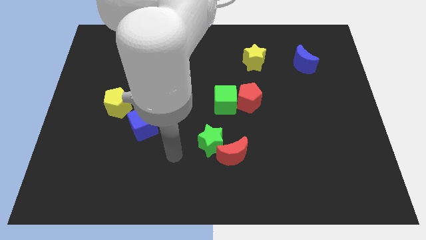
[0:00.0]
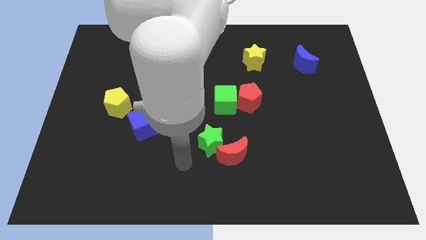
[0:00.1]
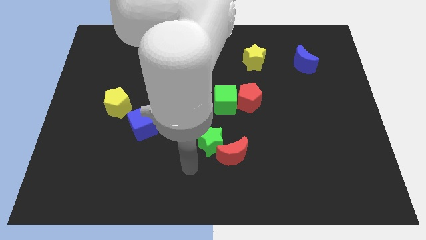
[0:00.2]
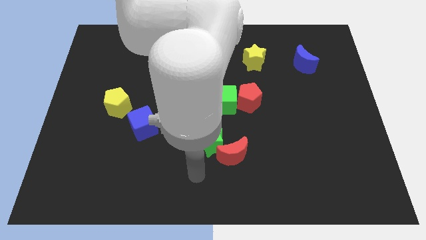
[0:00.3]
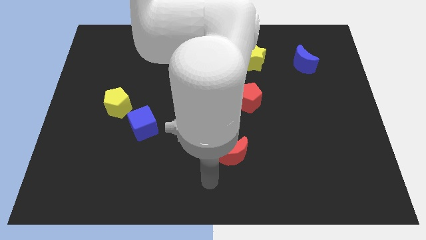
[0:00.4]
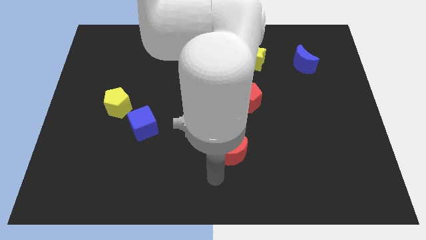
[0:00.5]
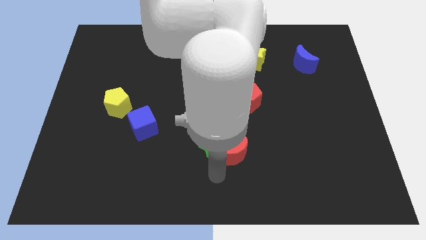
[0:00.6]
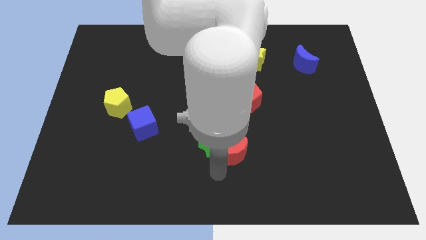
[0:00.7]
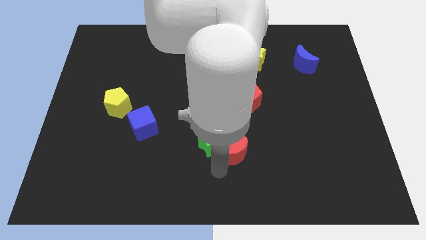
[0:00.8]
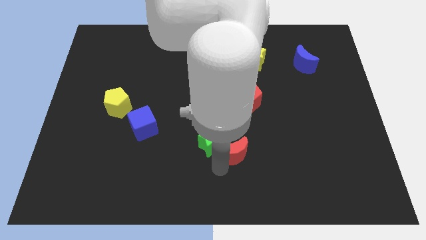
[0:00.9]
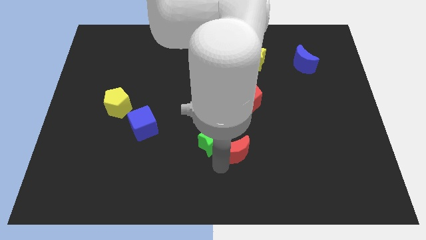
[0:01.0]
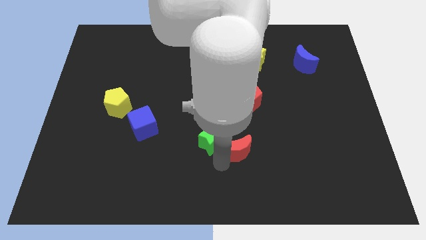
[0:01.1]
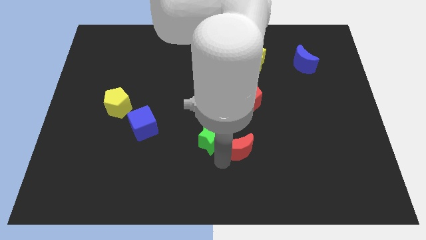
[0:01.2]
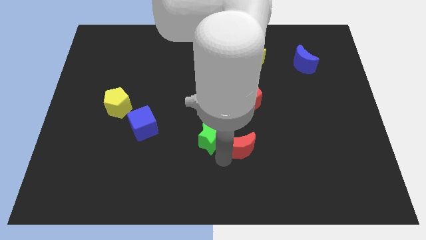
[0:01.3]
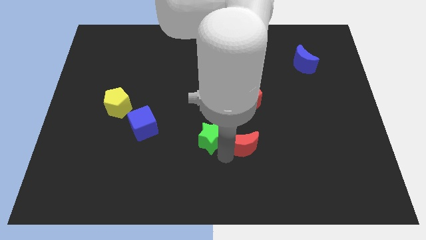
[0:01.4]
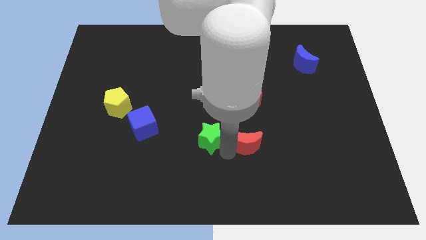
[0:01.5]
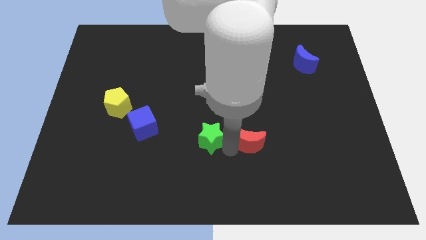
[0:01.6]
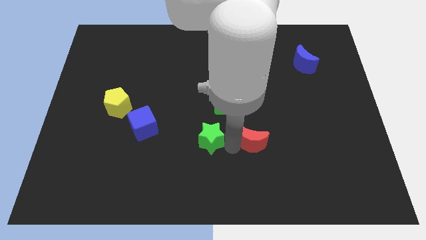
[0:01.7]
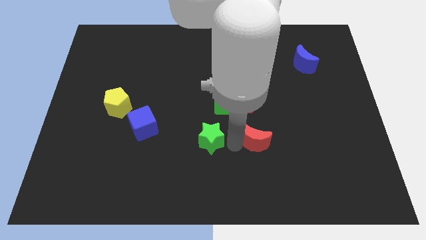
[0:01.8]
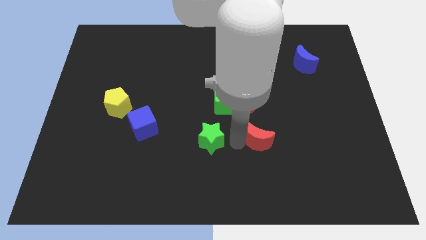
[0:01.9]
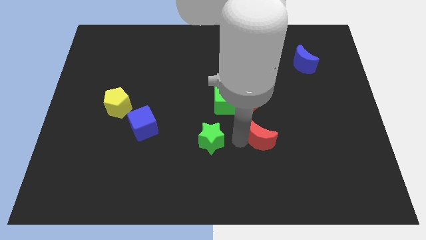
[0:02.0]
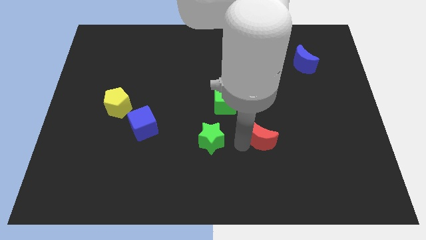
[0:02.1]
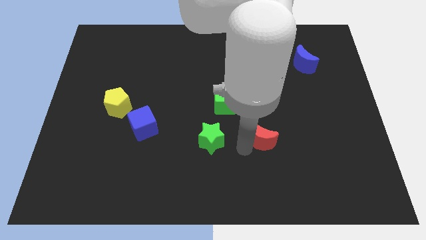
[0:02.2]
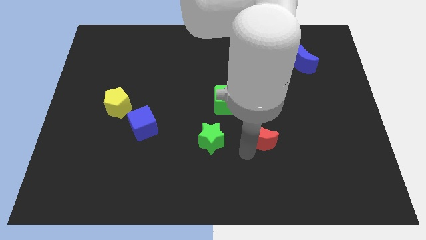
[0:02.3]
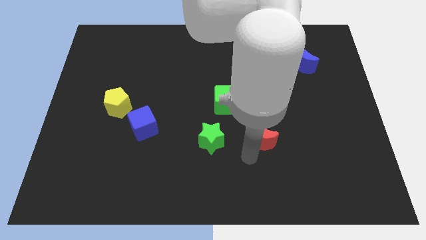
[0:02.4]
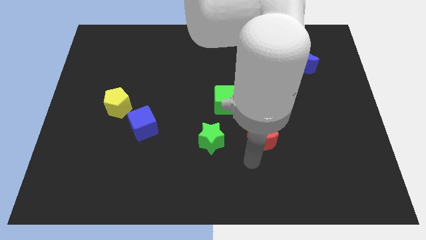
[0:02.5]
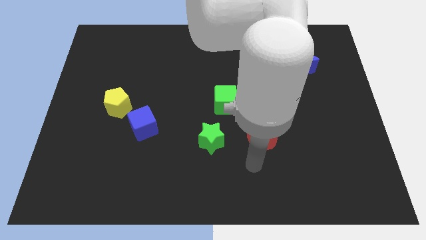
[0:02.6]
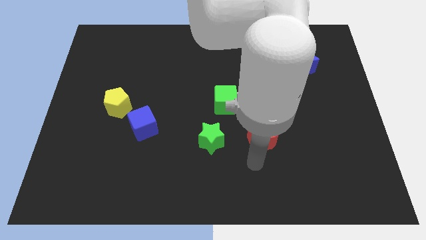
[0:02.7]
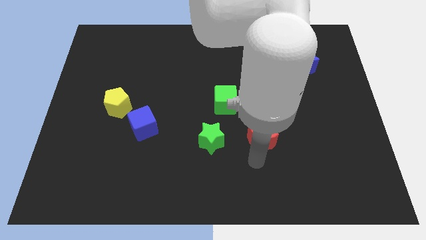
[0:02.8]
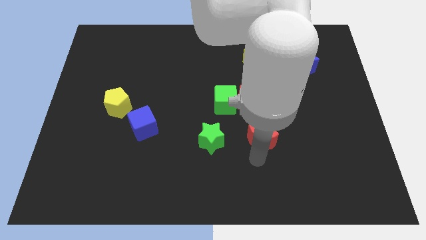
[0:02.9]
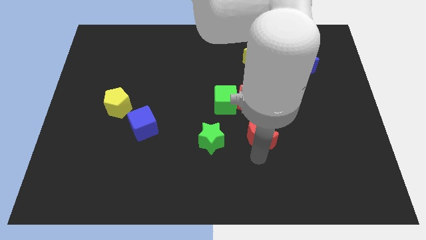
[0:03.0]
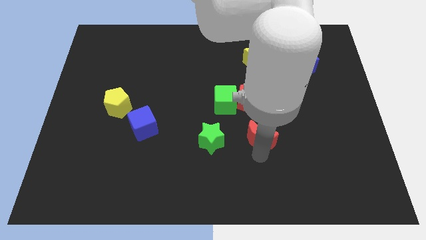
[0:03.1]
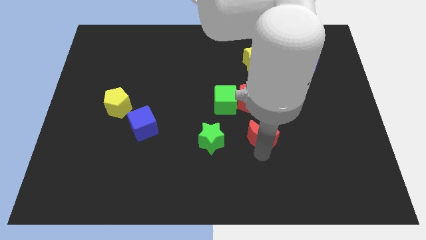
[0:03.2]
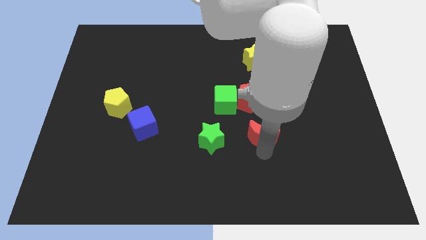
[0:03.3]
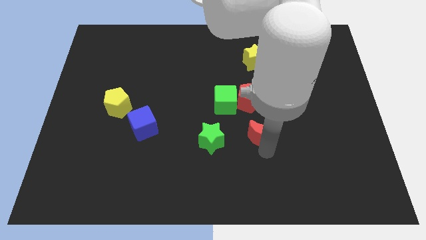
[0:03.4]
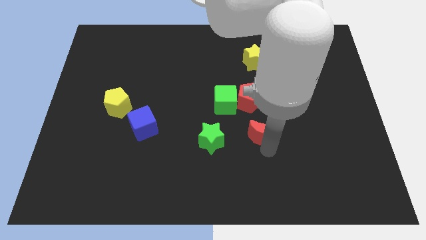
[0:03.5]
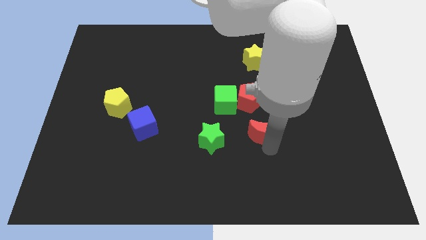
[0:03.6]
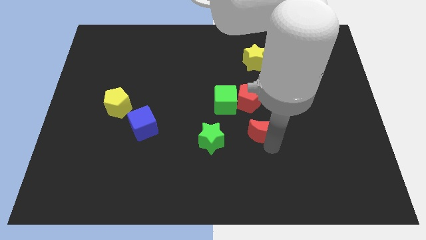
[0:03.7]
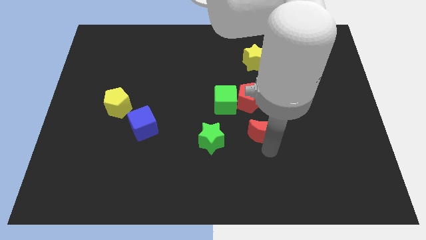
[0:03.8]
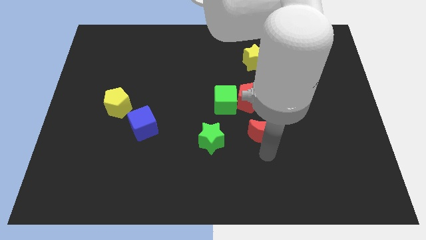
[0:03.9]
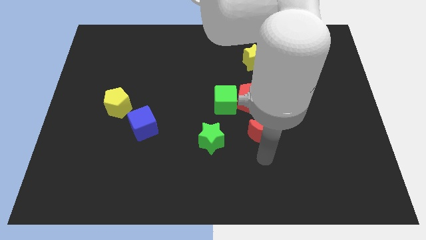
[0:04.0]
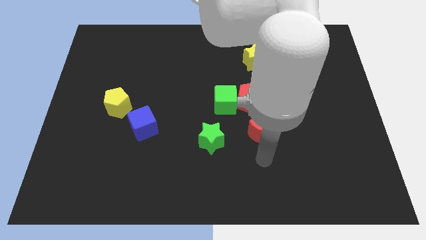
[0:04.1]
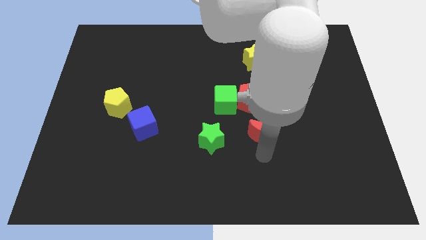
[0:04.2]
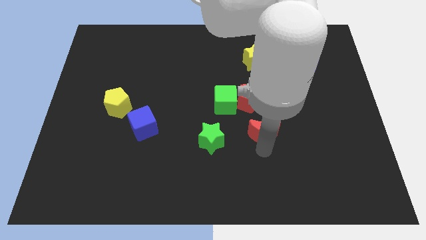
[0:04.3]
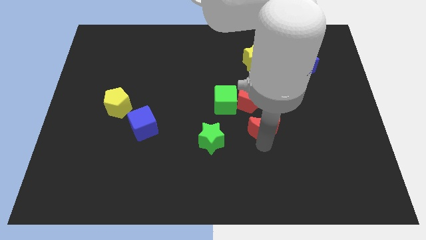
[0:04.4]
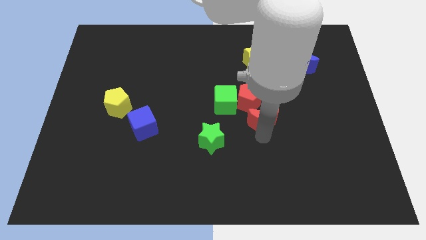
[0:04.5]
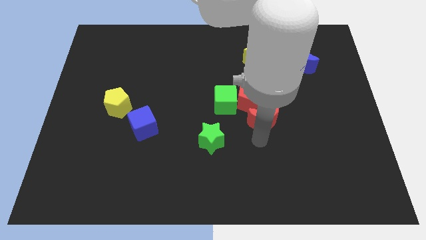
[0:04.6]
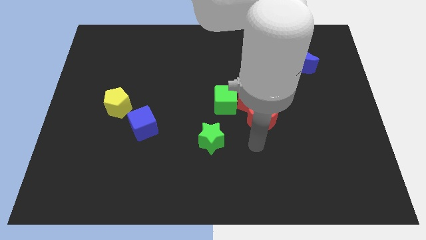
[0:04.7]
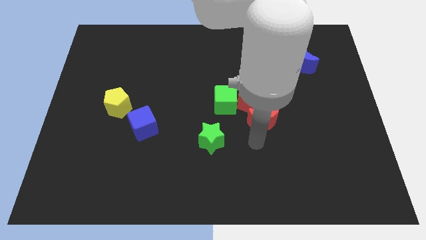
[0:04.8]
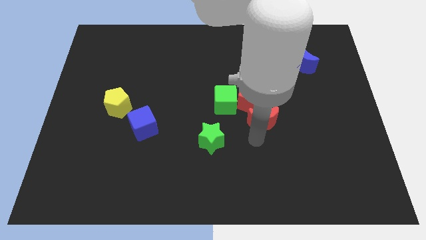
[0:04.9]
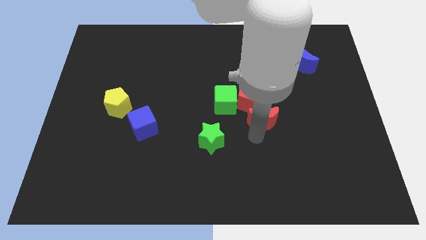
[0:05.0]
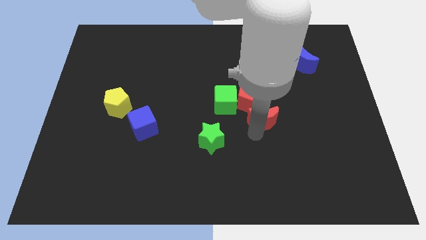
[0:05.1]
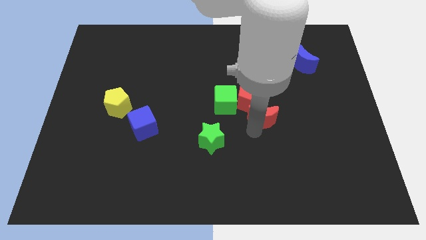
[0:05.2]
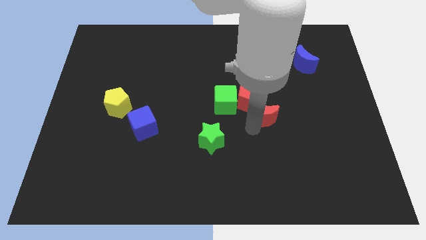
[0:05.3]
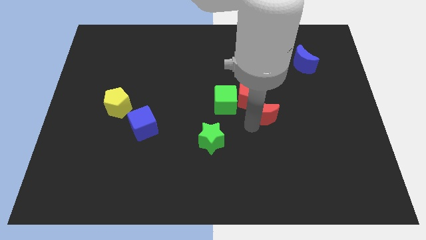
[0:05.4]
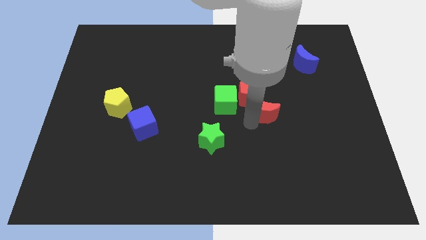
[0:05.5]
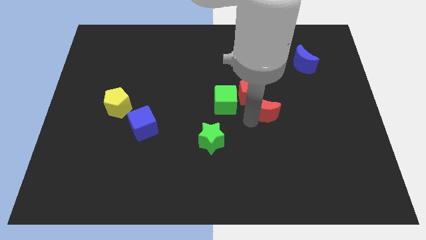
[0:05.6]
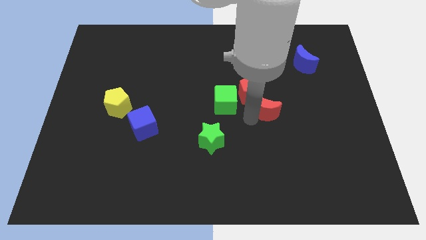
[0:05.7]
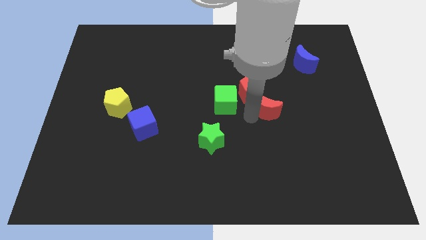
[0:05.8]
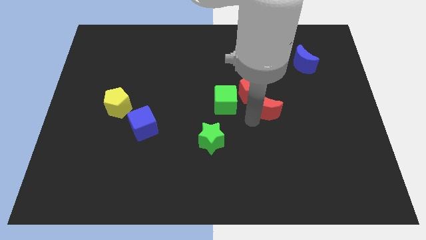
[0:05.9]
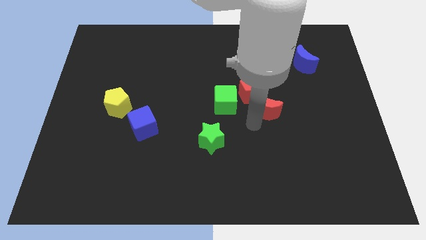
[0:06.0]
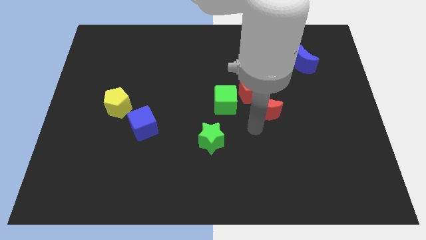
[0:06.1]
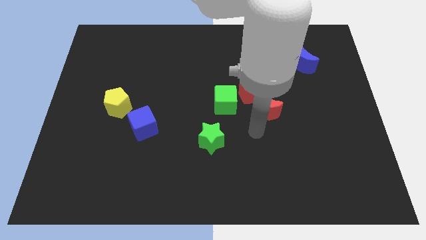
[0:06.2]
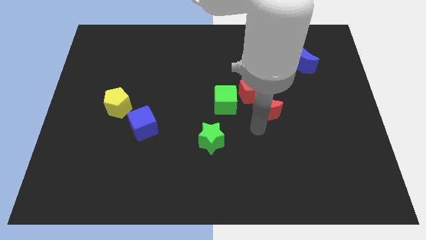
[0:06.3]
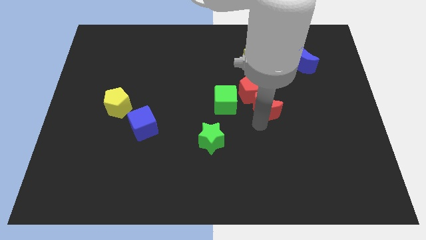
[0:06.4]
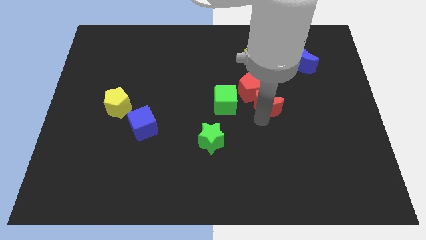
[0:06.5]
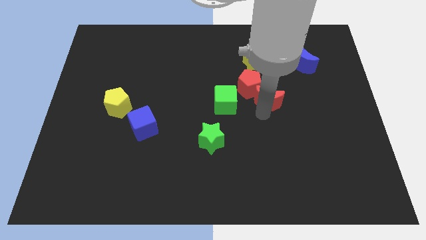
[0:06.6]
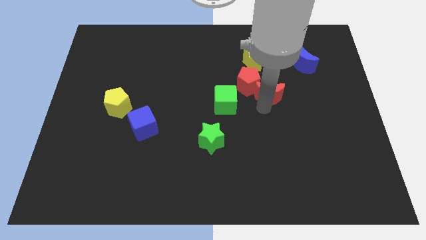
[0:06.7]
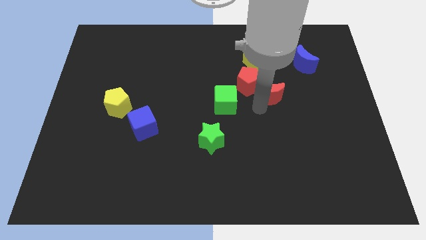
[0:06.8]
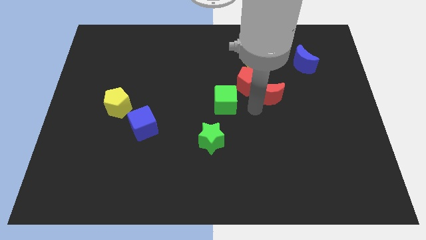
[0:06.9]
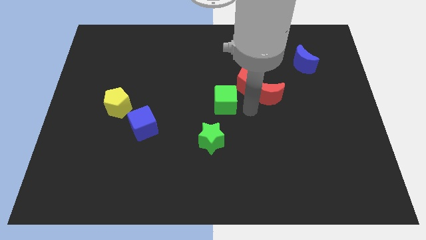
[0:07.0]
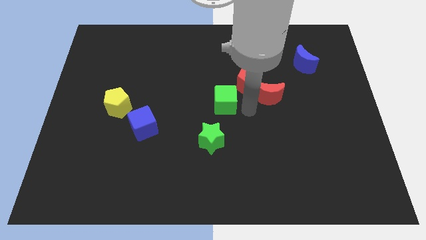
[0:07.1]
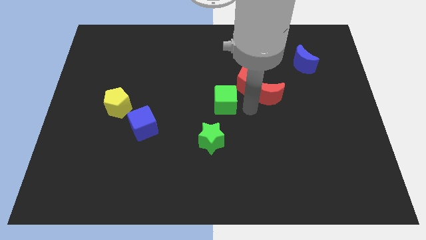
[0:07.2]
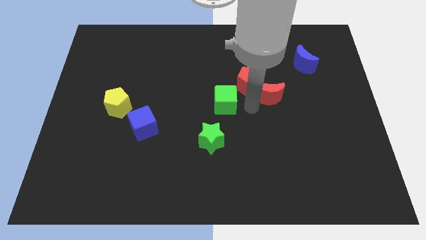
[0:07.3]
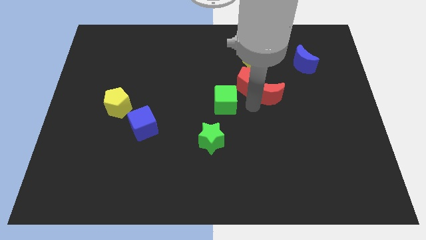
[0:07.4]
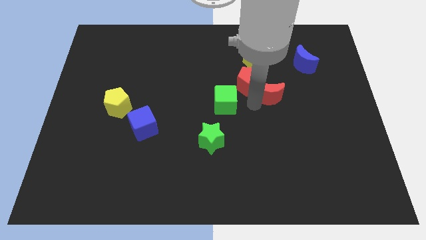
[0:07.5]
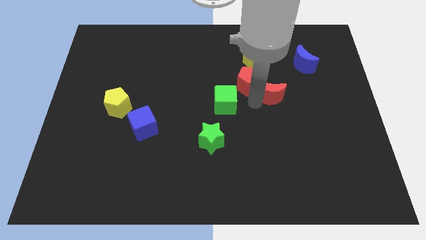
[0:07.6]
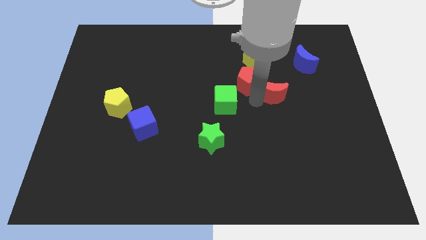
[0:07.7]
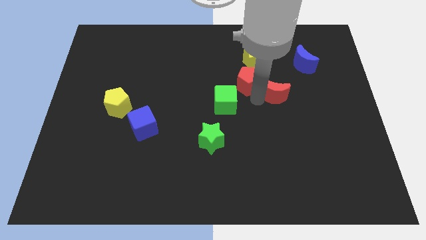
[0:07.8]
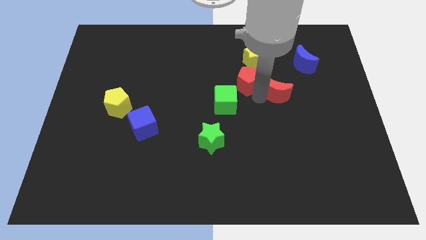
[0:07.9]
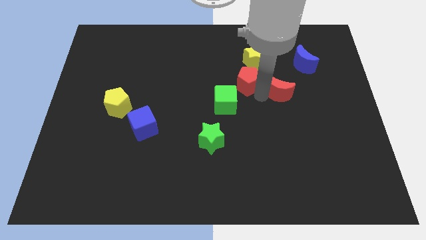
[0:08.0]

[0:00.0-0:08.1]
put the red moon diagonally down and to the left of the blue moon
